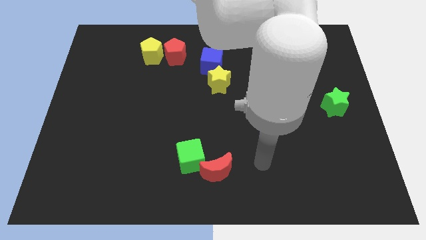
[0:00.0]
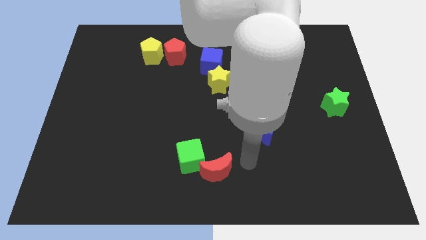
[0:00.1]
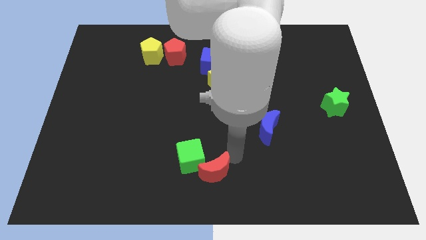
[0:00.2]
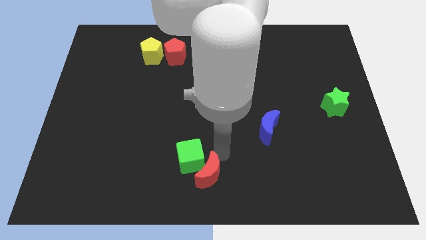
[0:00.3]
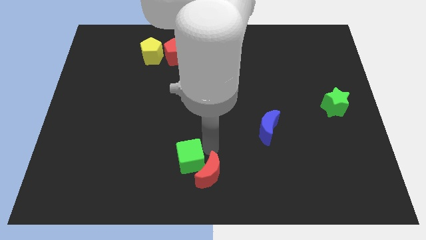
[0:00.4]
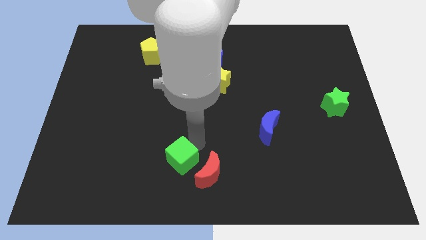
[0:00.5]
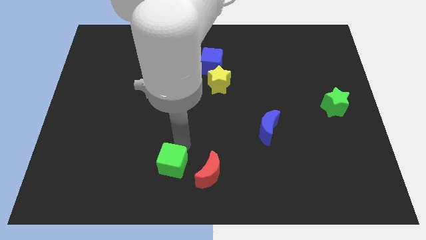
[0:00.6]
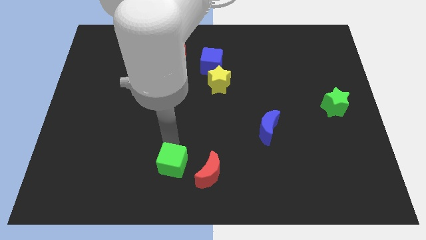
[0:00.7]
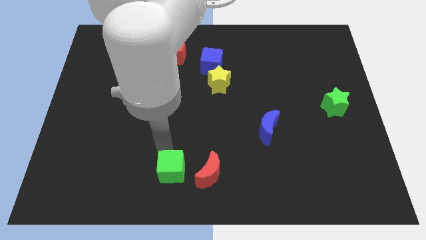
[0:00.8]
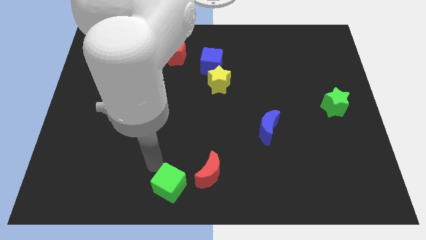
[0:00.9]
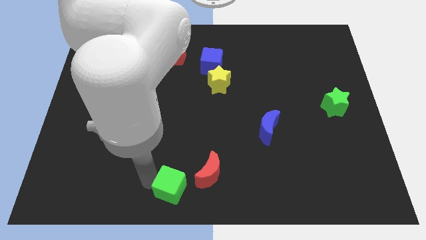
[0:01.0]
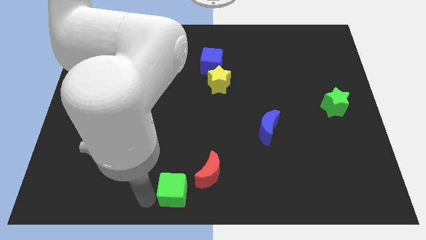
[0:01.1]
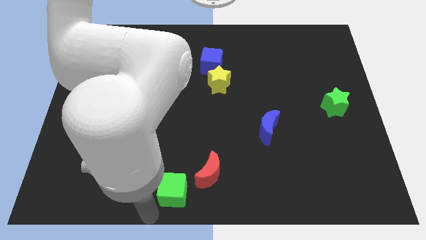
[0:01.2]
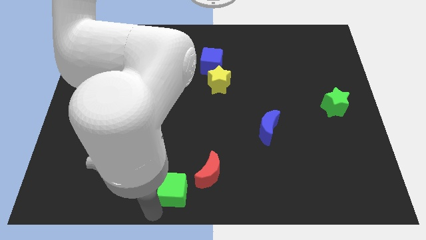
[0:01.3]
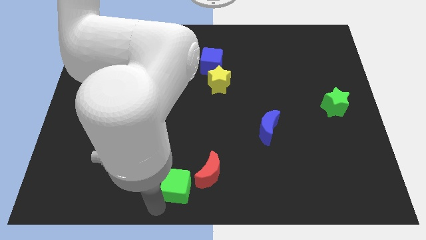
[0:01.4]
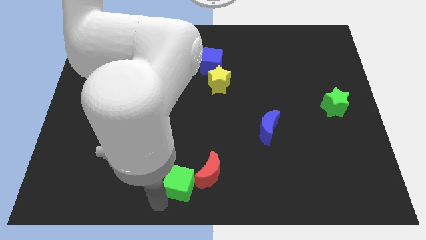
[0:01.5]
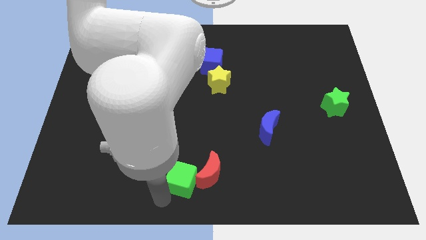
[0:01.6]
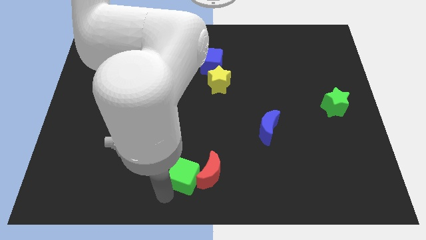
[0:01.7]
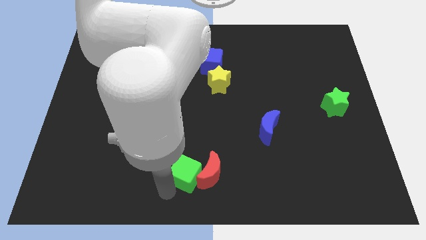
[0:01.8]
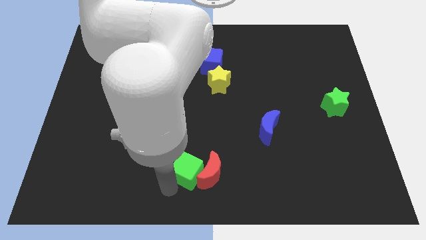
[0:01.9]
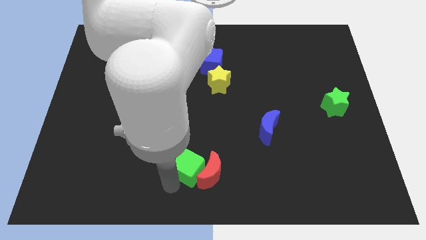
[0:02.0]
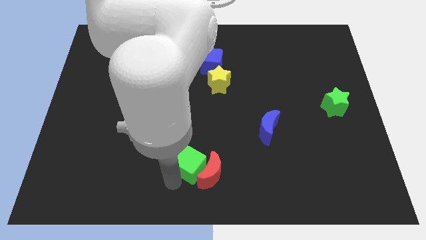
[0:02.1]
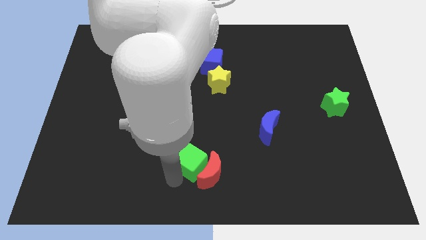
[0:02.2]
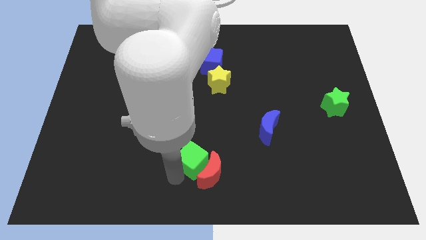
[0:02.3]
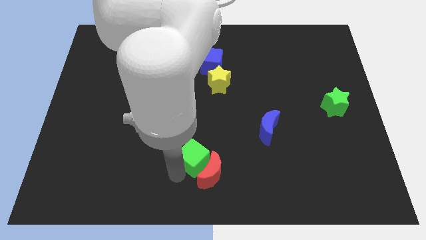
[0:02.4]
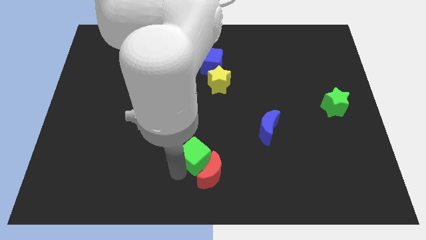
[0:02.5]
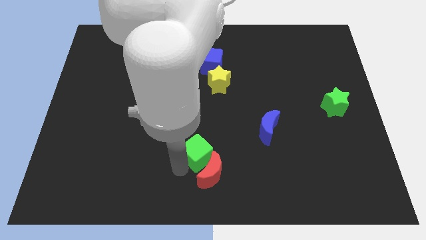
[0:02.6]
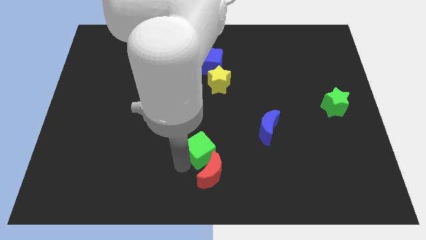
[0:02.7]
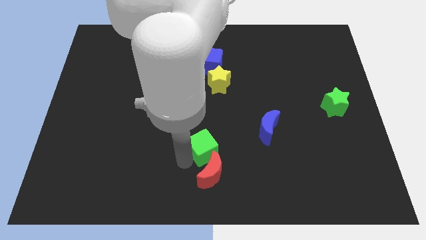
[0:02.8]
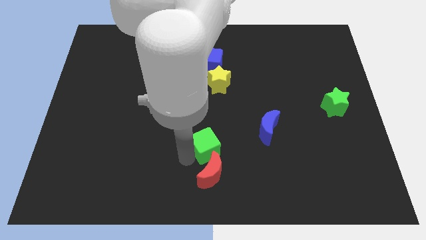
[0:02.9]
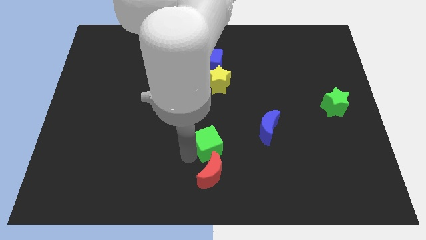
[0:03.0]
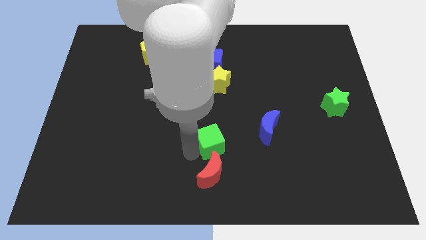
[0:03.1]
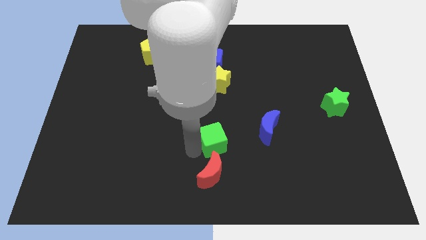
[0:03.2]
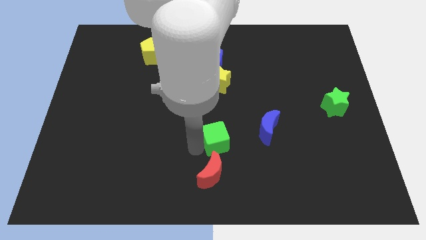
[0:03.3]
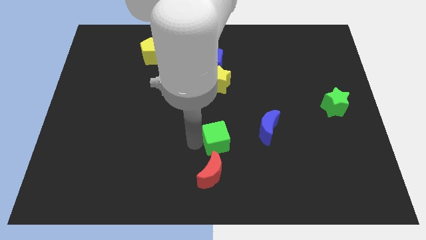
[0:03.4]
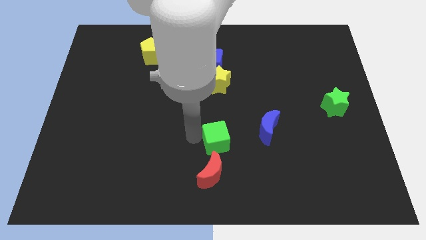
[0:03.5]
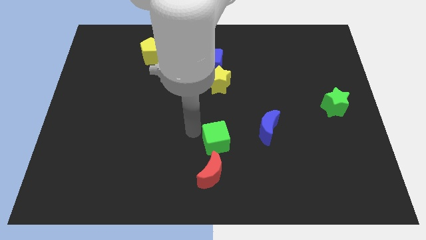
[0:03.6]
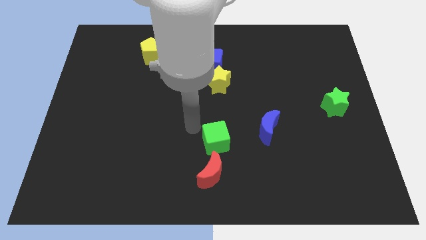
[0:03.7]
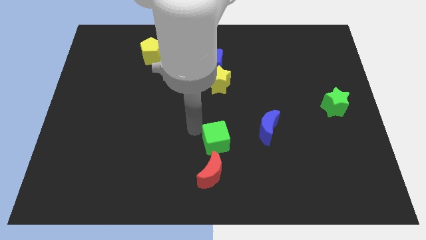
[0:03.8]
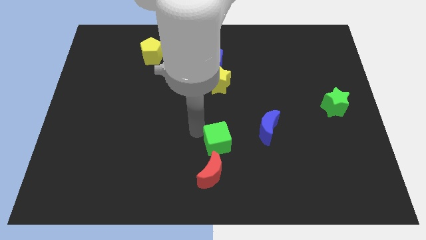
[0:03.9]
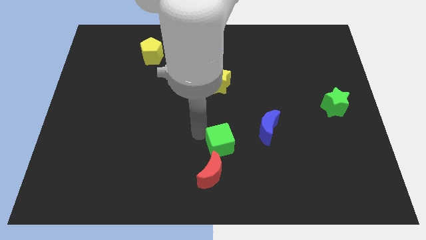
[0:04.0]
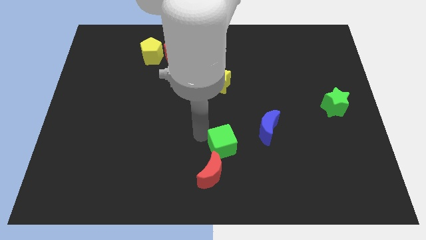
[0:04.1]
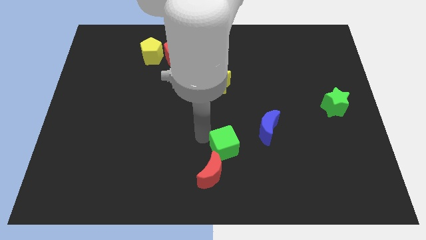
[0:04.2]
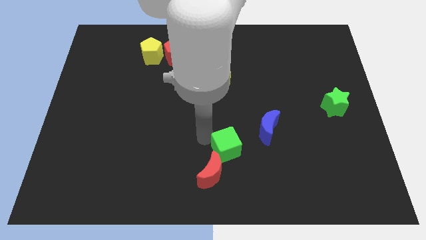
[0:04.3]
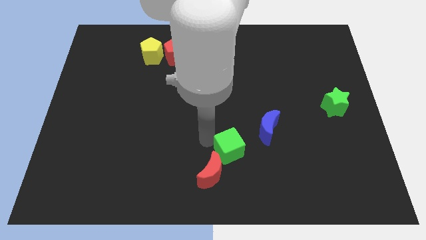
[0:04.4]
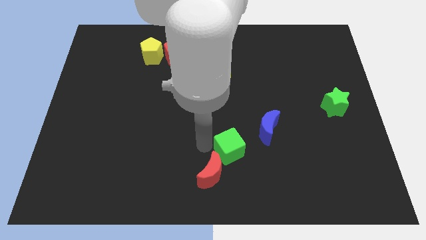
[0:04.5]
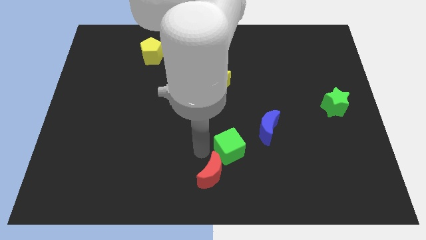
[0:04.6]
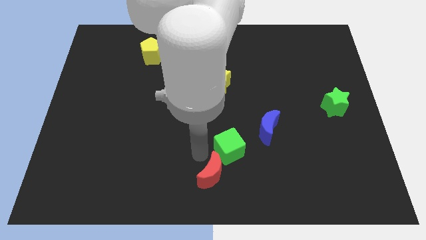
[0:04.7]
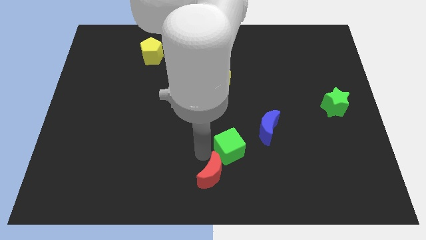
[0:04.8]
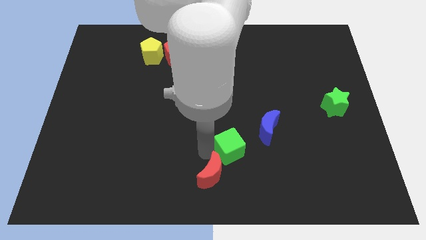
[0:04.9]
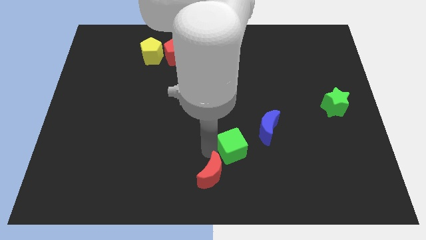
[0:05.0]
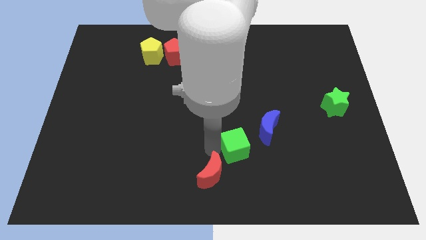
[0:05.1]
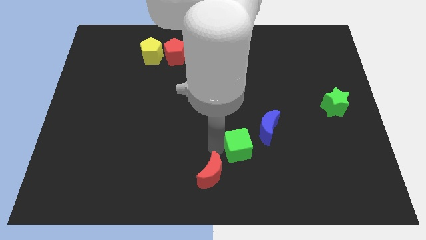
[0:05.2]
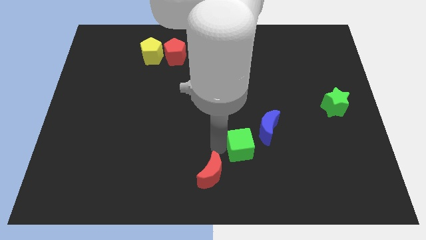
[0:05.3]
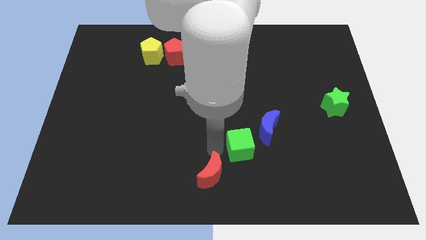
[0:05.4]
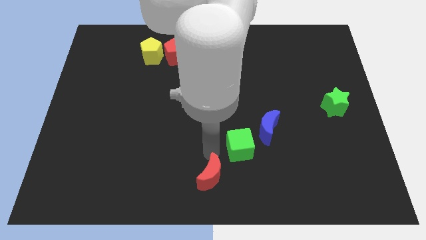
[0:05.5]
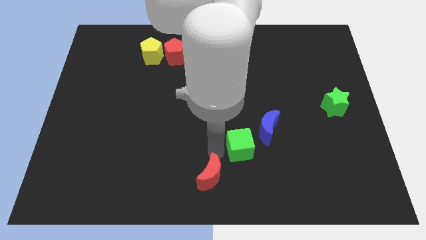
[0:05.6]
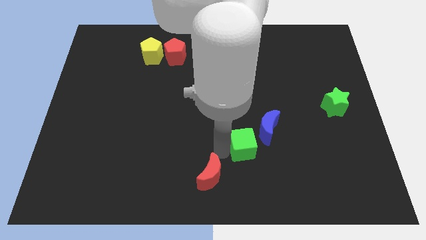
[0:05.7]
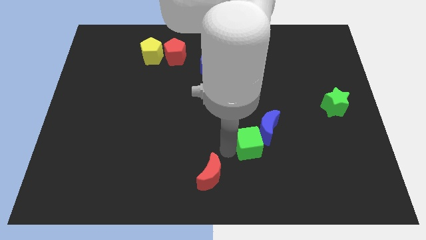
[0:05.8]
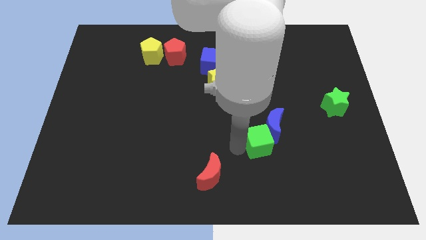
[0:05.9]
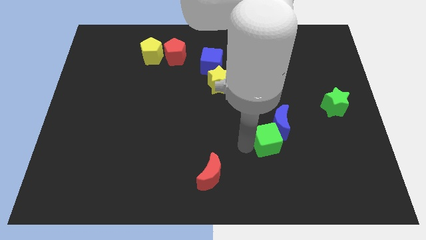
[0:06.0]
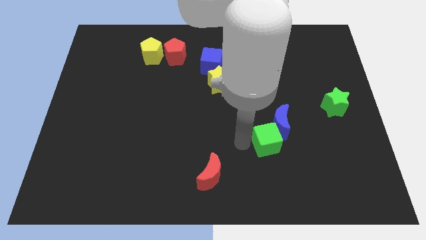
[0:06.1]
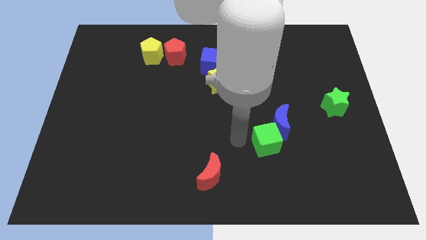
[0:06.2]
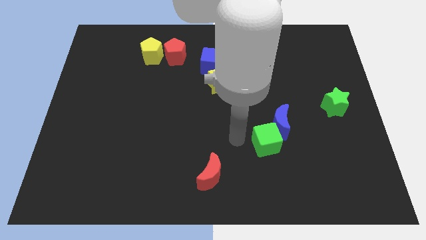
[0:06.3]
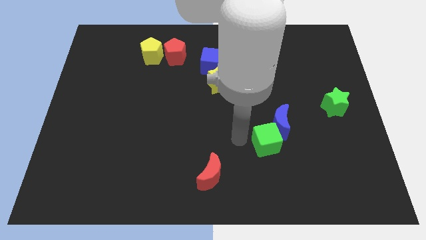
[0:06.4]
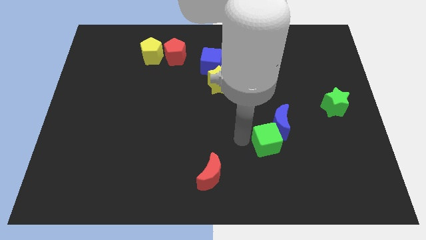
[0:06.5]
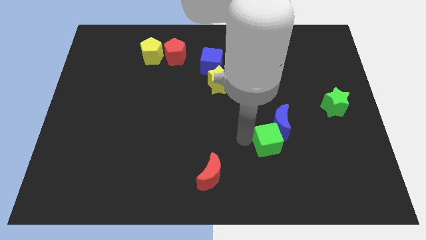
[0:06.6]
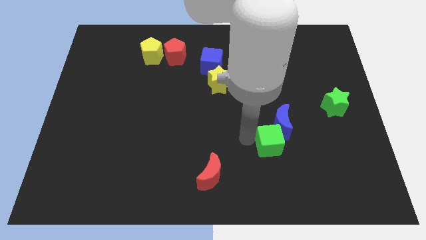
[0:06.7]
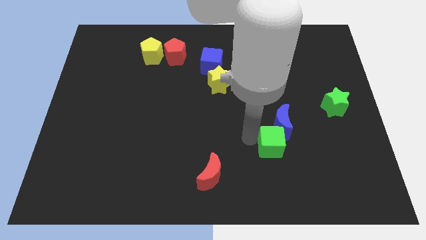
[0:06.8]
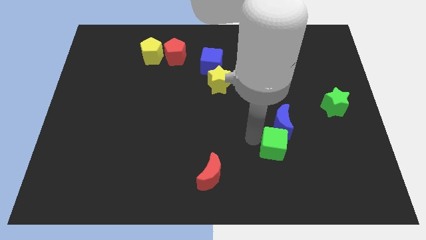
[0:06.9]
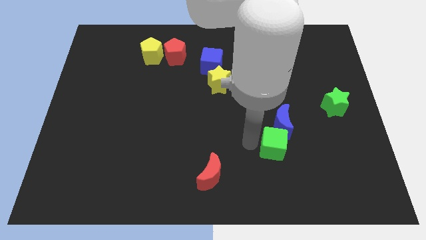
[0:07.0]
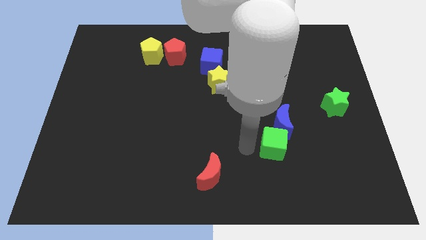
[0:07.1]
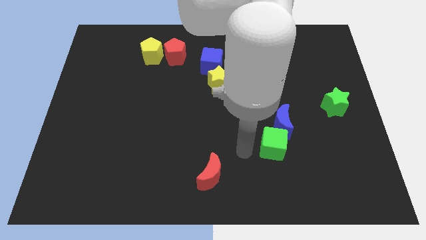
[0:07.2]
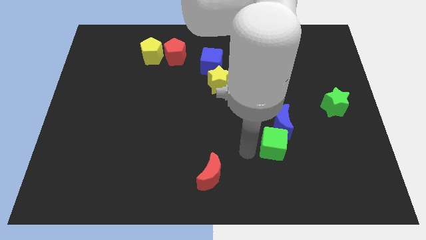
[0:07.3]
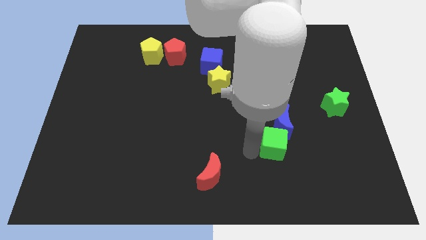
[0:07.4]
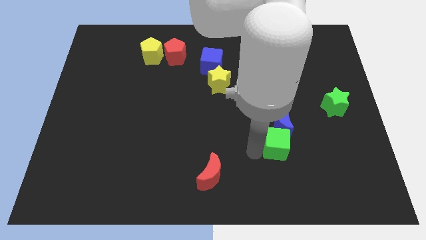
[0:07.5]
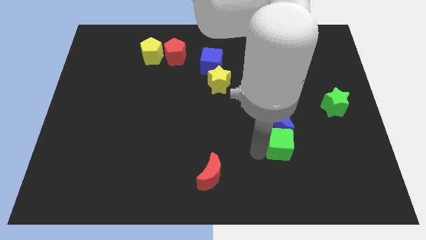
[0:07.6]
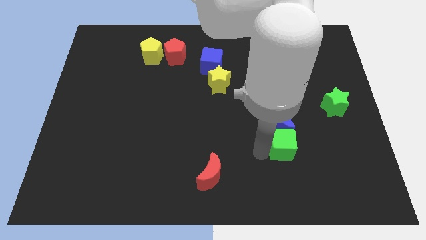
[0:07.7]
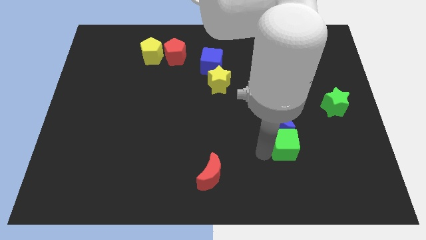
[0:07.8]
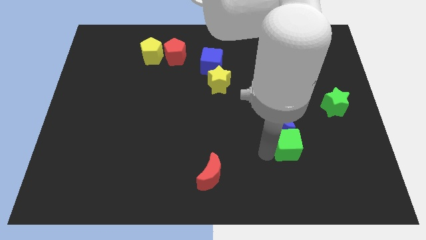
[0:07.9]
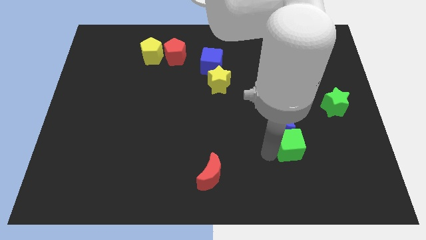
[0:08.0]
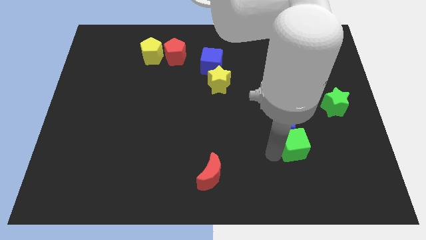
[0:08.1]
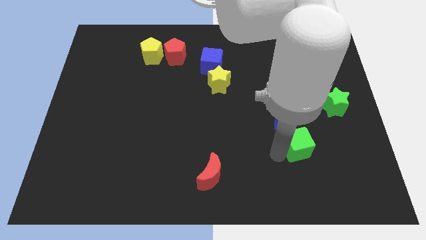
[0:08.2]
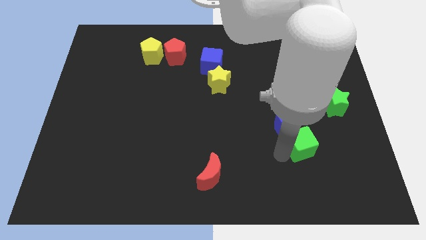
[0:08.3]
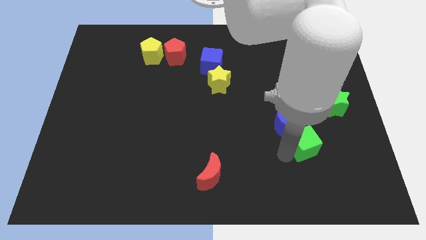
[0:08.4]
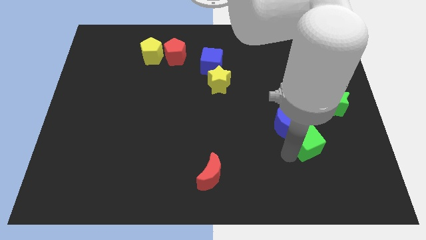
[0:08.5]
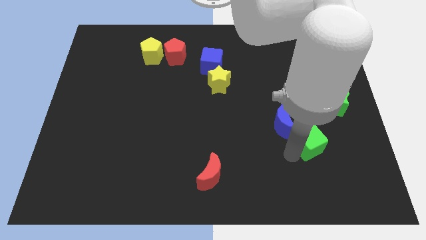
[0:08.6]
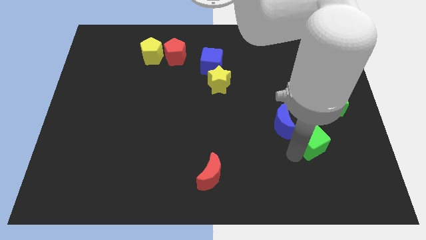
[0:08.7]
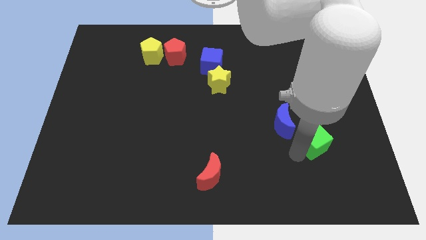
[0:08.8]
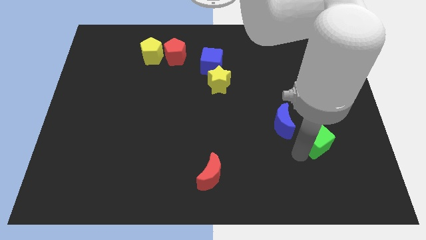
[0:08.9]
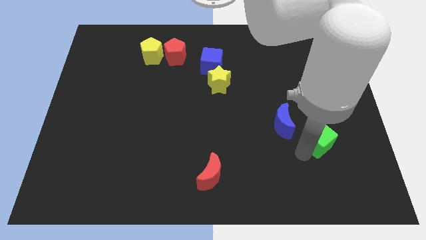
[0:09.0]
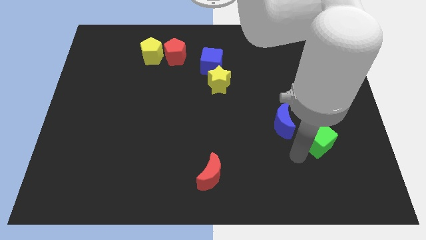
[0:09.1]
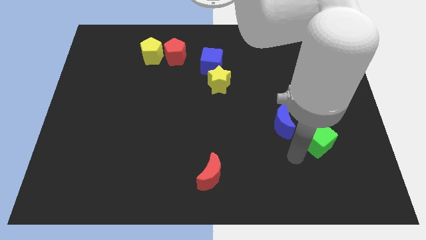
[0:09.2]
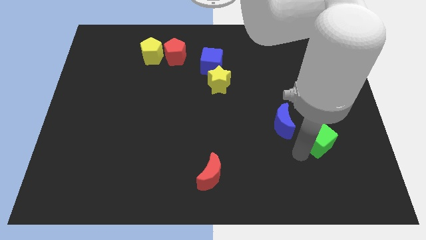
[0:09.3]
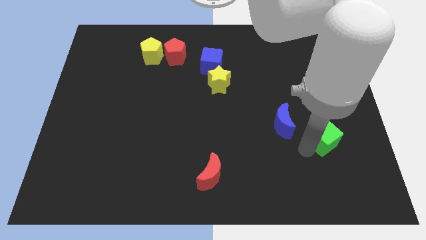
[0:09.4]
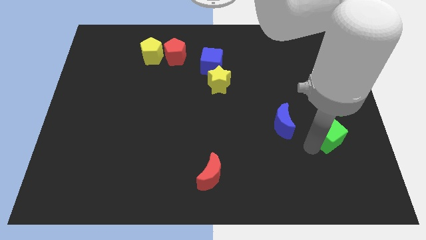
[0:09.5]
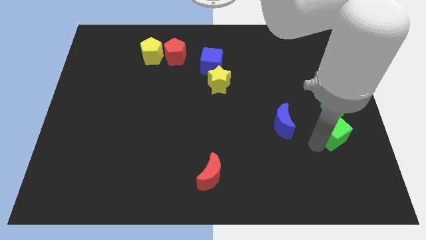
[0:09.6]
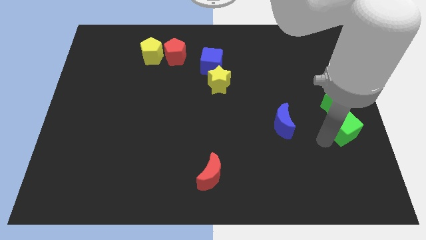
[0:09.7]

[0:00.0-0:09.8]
push the green cube to the center right
